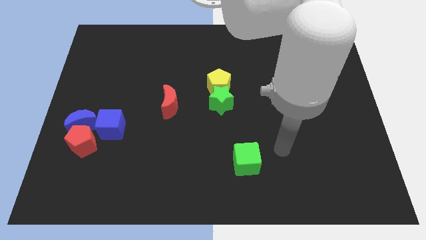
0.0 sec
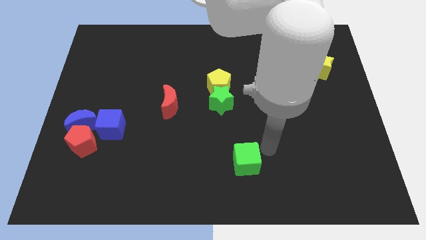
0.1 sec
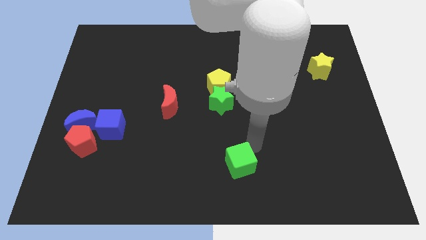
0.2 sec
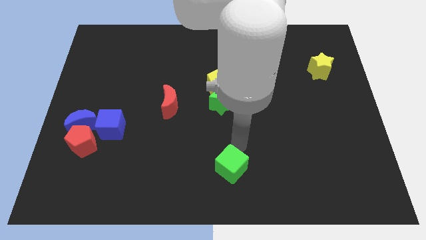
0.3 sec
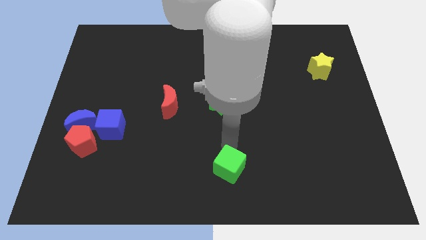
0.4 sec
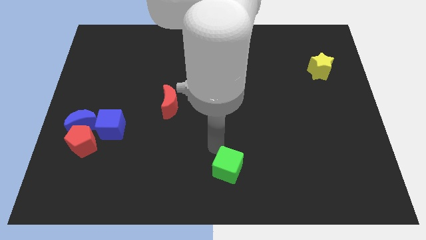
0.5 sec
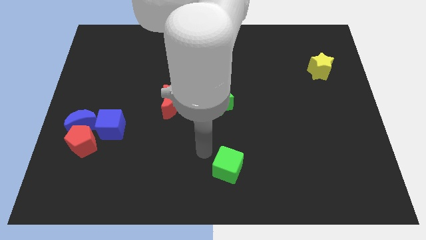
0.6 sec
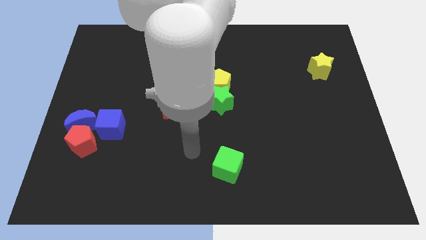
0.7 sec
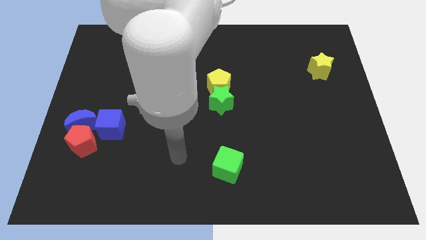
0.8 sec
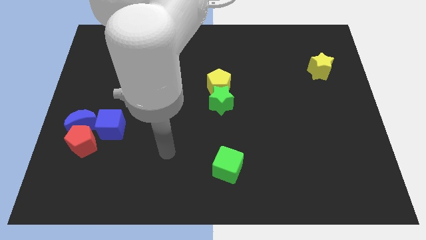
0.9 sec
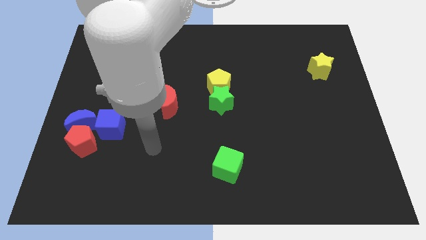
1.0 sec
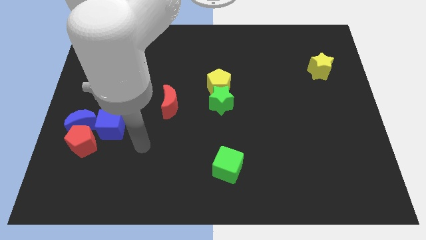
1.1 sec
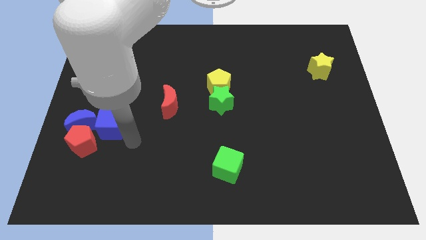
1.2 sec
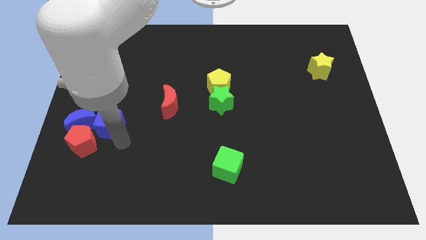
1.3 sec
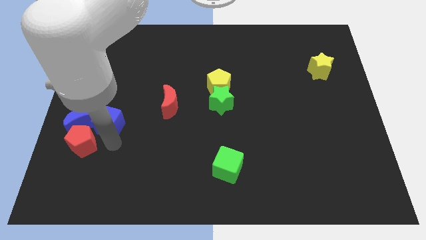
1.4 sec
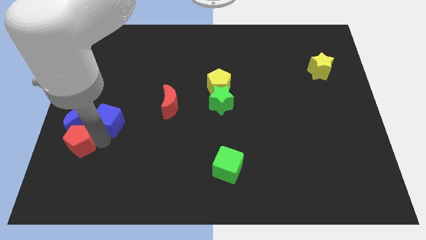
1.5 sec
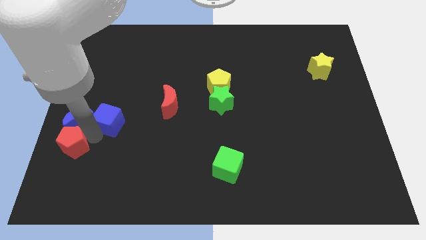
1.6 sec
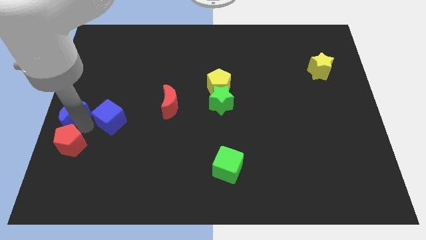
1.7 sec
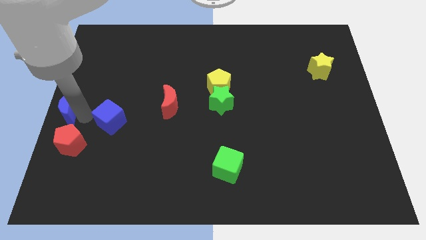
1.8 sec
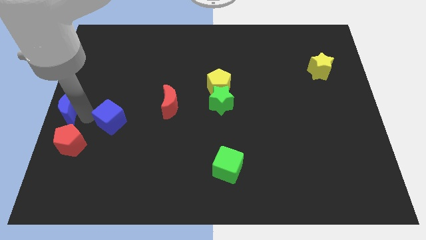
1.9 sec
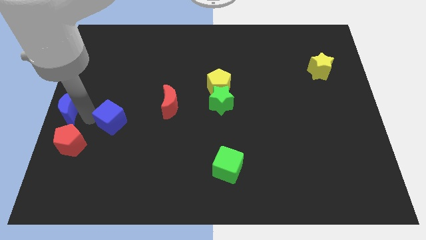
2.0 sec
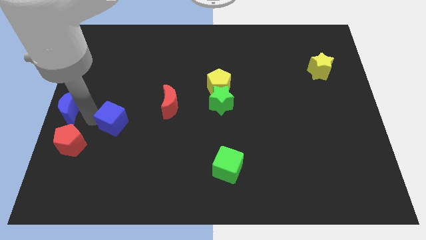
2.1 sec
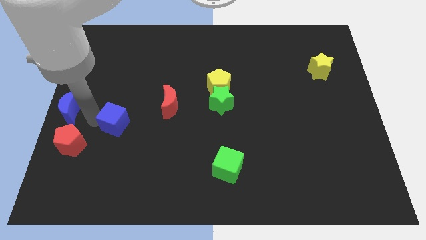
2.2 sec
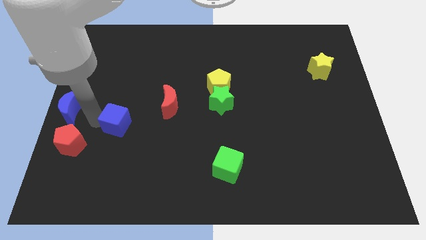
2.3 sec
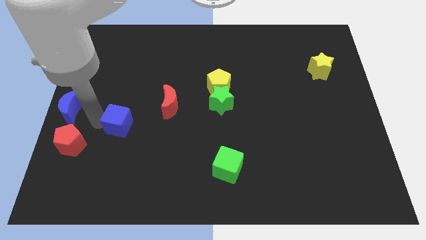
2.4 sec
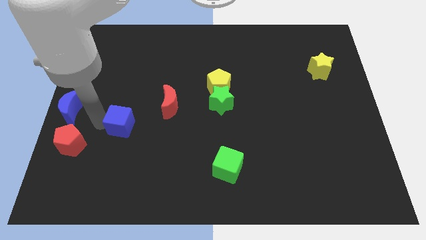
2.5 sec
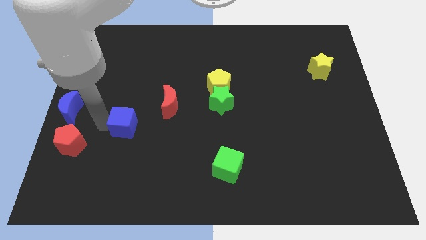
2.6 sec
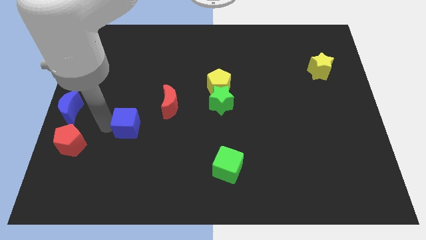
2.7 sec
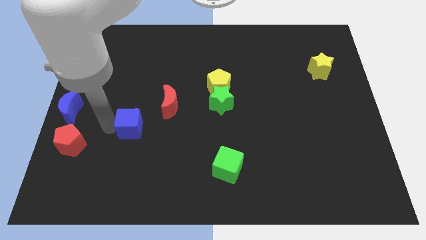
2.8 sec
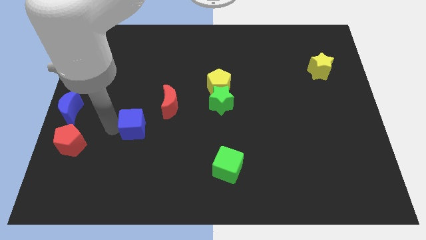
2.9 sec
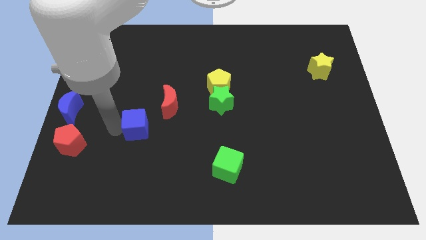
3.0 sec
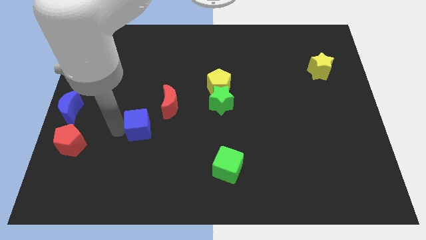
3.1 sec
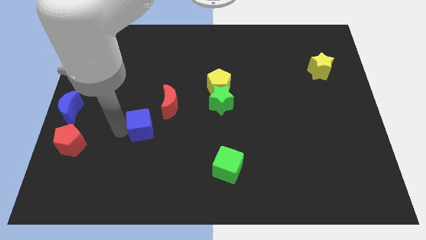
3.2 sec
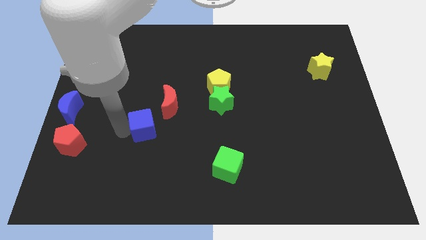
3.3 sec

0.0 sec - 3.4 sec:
slightly push the blue cube right

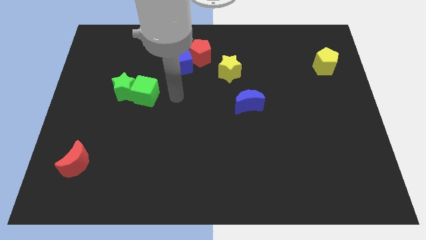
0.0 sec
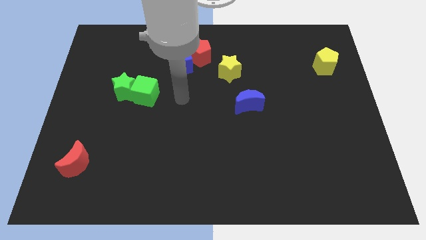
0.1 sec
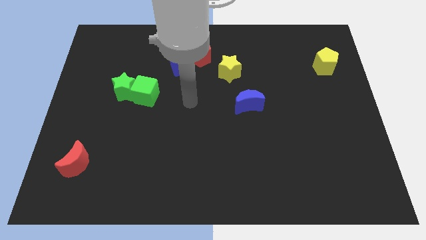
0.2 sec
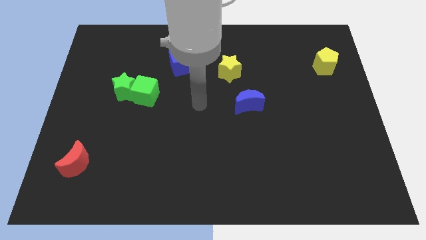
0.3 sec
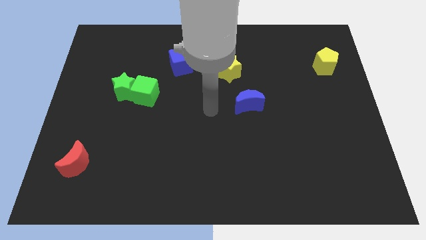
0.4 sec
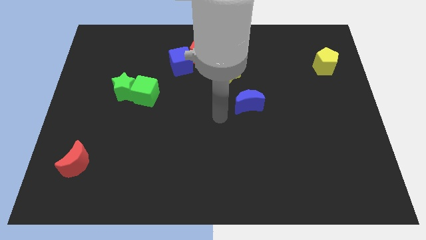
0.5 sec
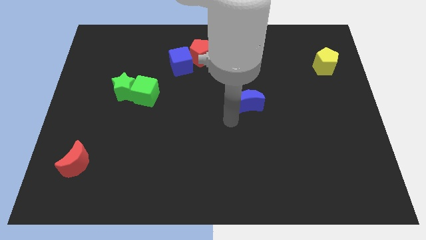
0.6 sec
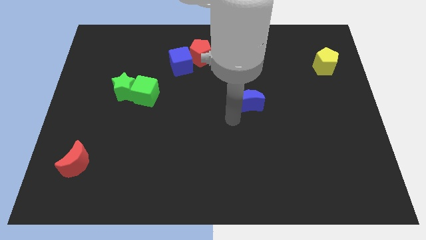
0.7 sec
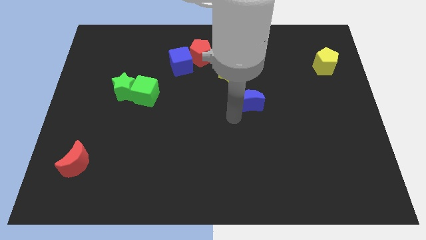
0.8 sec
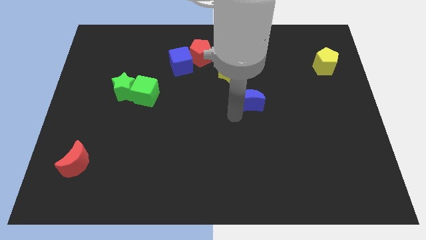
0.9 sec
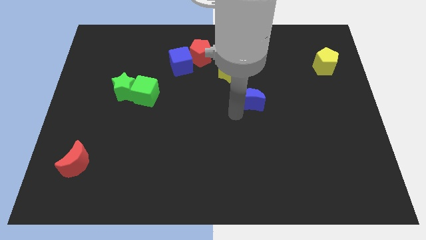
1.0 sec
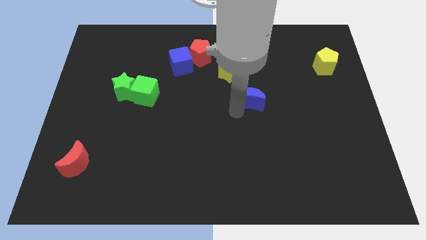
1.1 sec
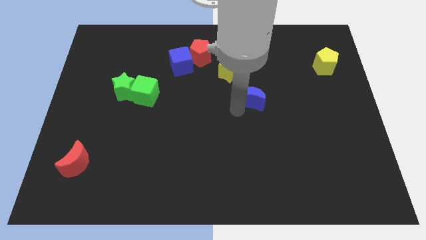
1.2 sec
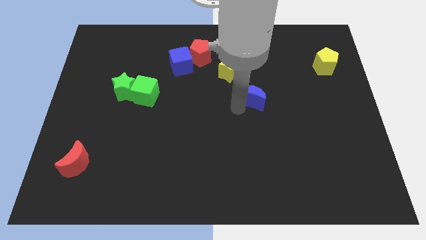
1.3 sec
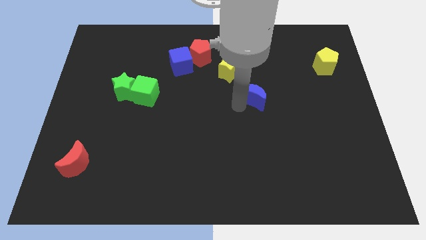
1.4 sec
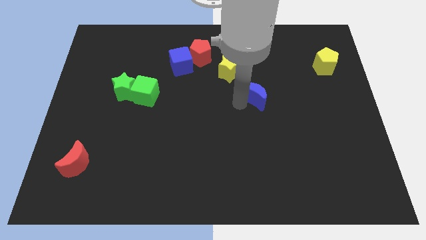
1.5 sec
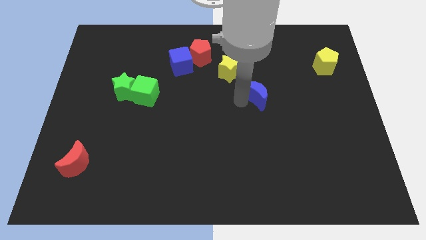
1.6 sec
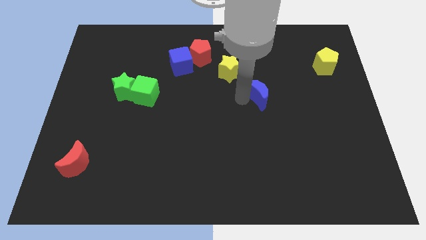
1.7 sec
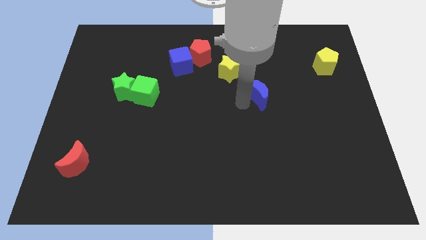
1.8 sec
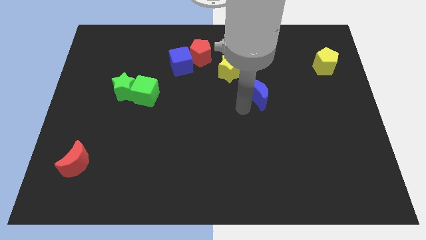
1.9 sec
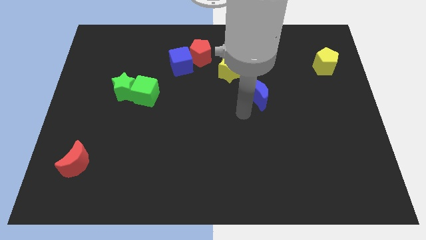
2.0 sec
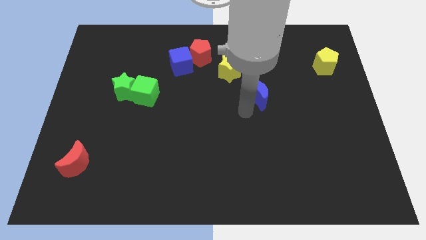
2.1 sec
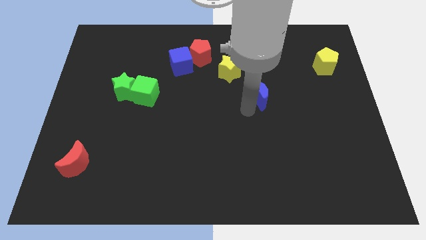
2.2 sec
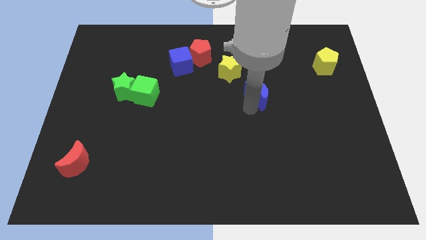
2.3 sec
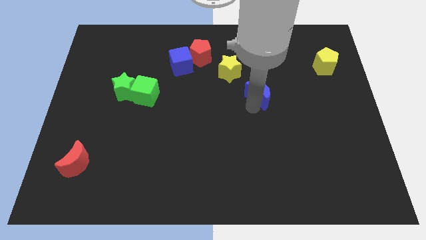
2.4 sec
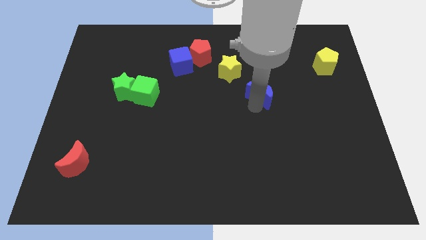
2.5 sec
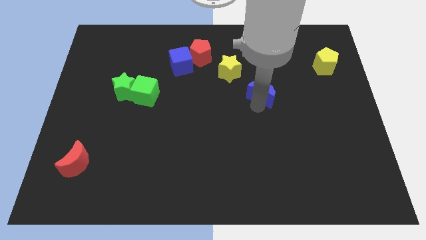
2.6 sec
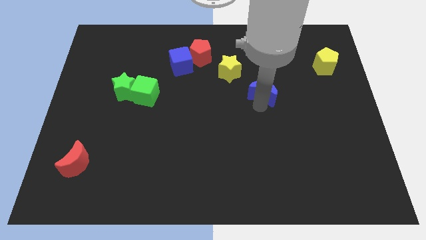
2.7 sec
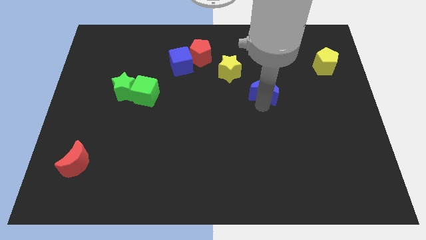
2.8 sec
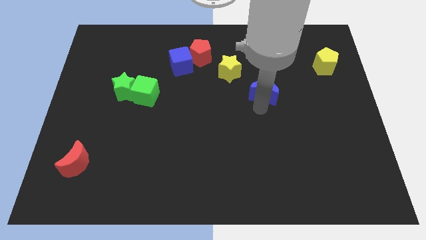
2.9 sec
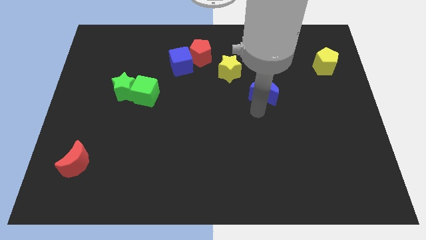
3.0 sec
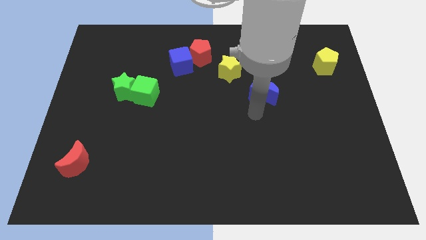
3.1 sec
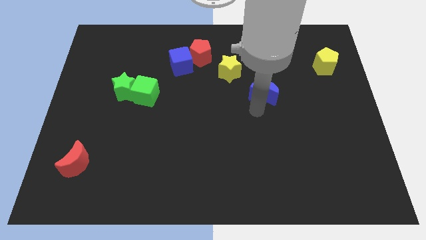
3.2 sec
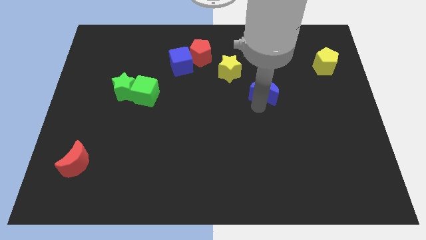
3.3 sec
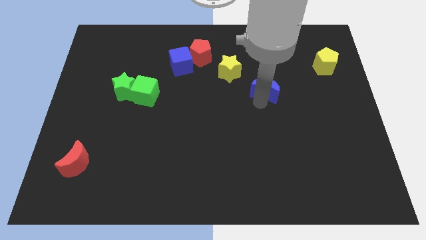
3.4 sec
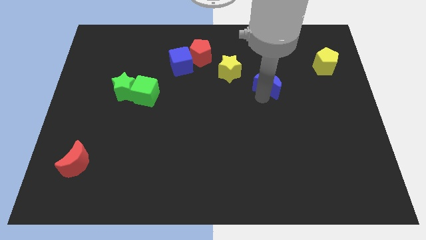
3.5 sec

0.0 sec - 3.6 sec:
move the blue moon diagonally upwards and right a little bit

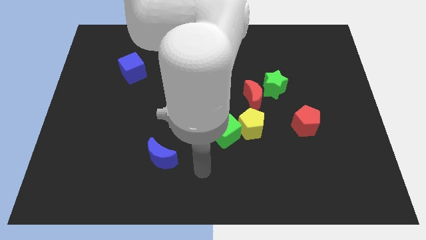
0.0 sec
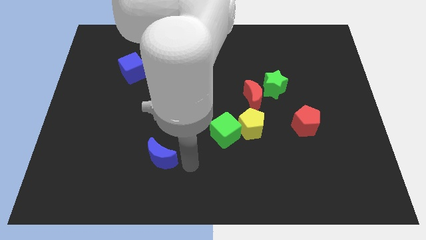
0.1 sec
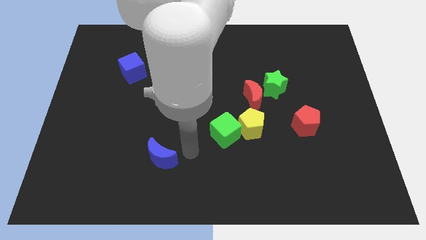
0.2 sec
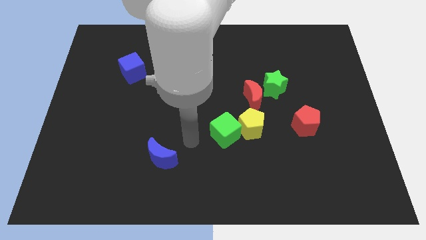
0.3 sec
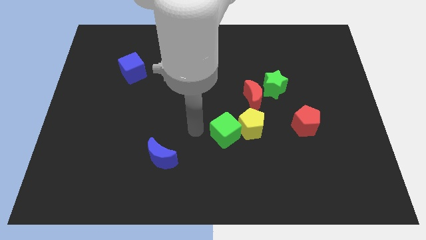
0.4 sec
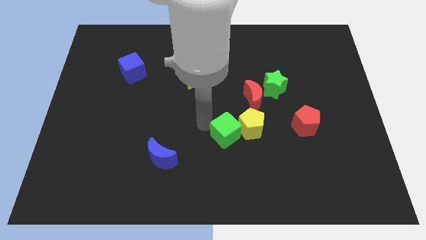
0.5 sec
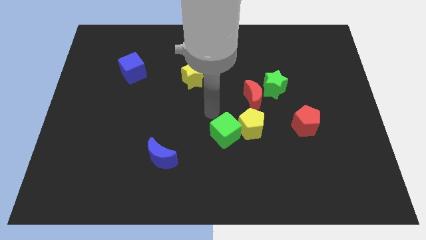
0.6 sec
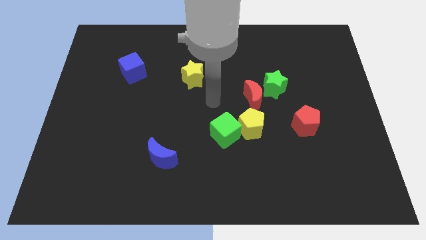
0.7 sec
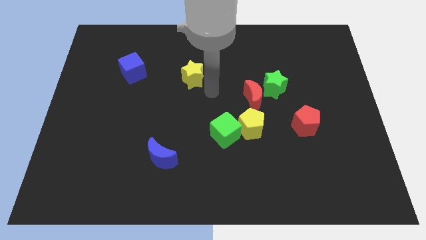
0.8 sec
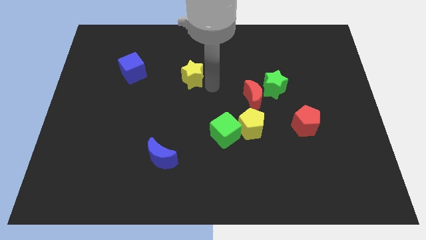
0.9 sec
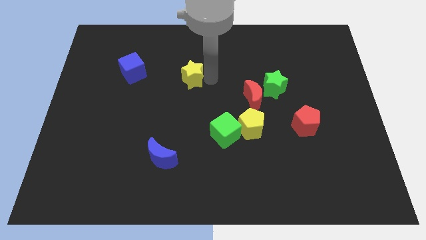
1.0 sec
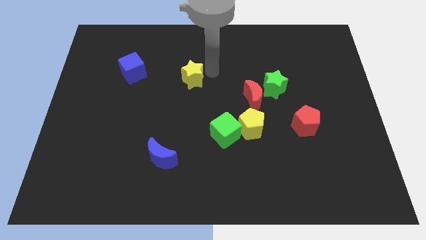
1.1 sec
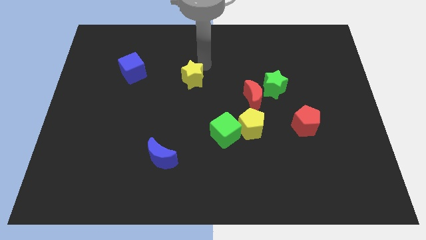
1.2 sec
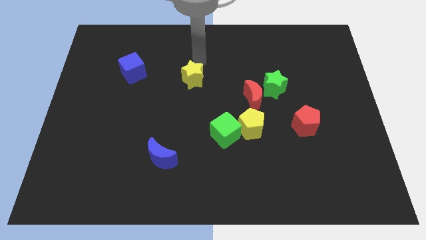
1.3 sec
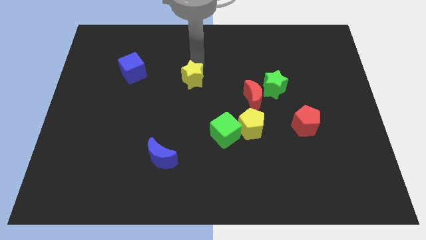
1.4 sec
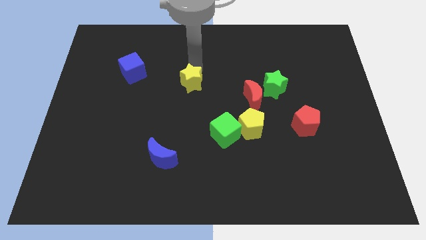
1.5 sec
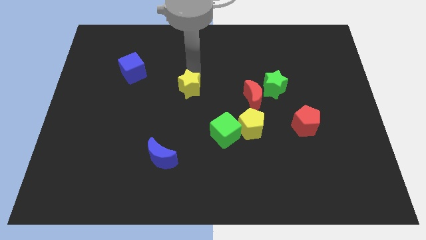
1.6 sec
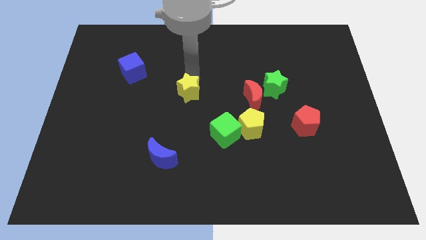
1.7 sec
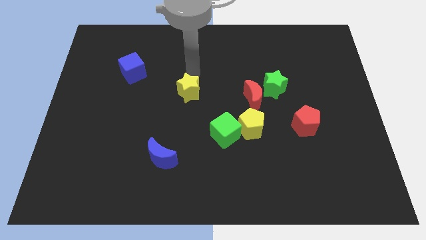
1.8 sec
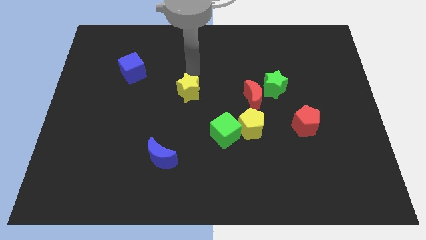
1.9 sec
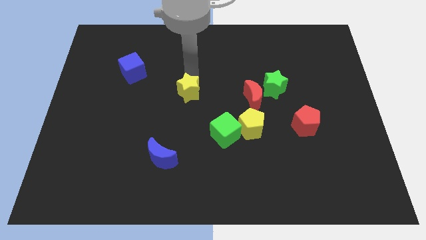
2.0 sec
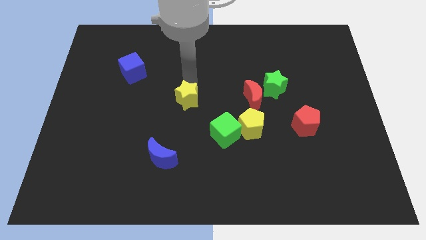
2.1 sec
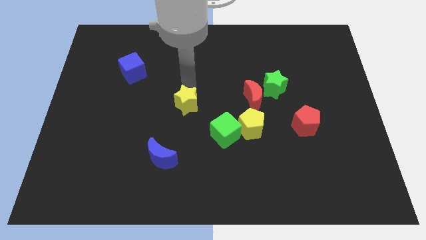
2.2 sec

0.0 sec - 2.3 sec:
push the yellow star slightly downwards
